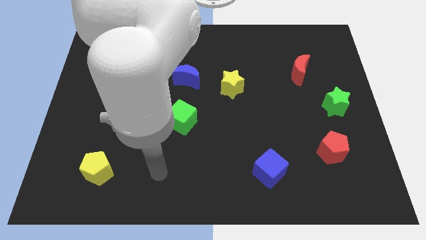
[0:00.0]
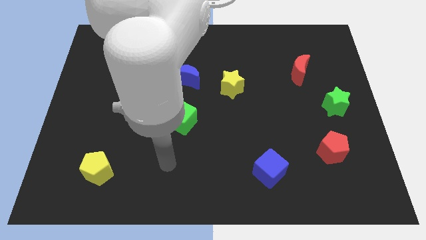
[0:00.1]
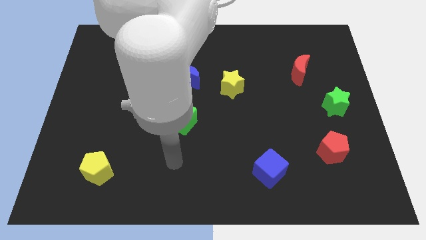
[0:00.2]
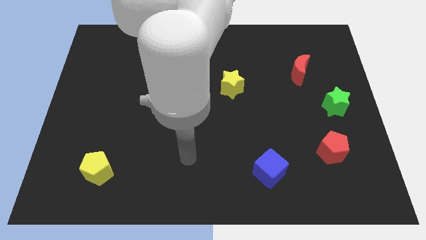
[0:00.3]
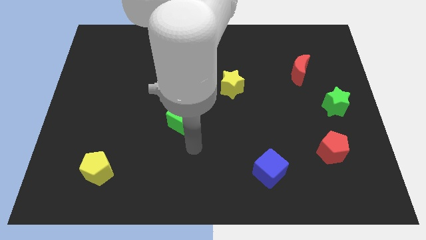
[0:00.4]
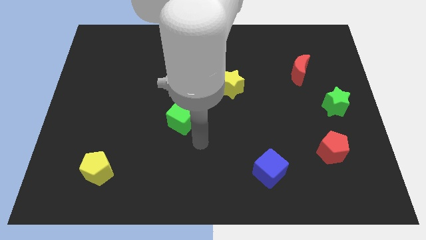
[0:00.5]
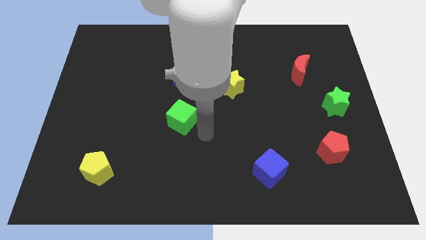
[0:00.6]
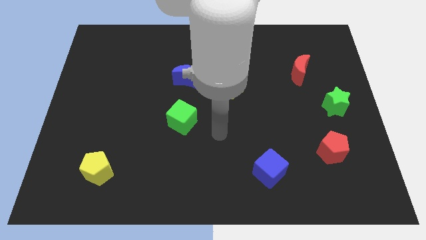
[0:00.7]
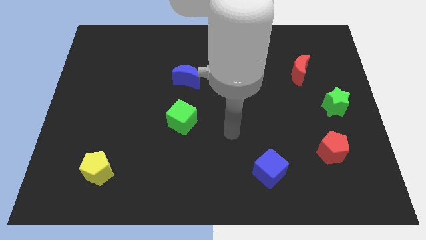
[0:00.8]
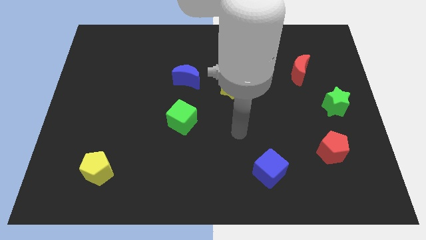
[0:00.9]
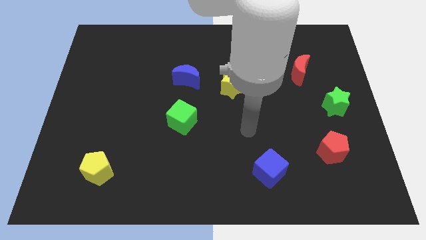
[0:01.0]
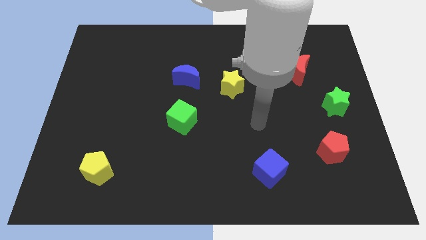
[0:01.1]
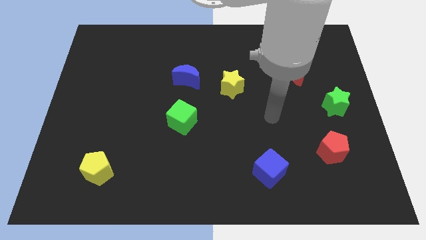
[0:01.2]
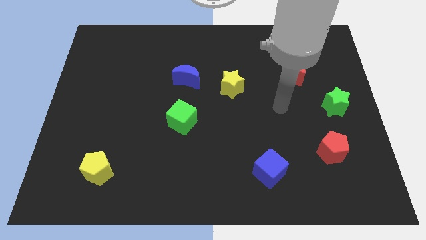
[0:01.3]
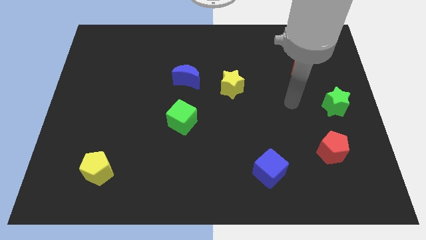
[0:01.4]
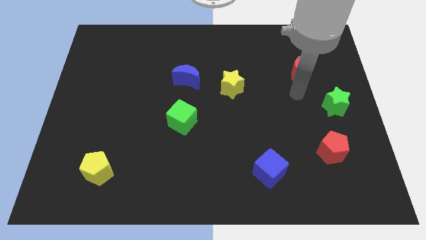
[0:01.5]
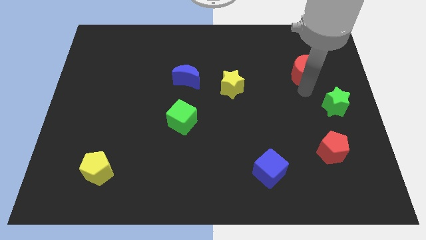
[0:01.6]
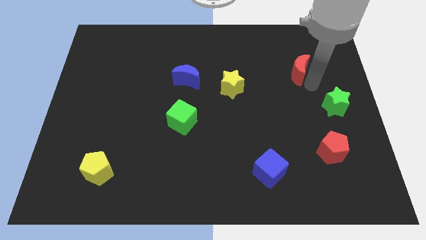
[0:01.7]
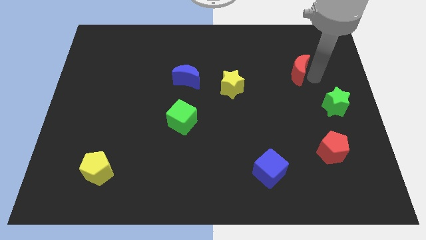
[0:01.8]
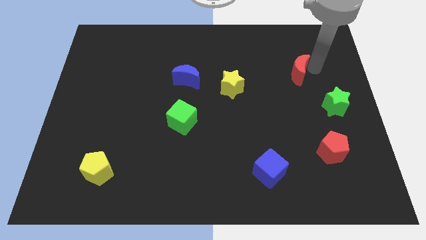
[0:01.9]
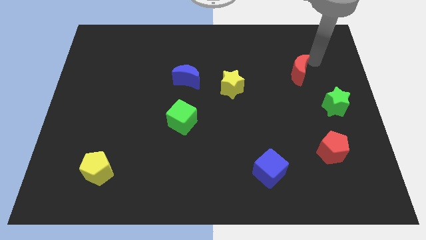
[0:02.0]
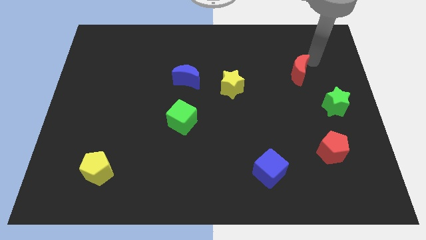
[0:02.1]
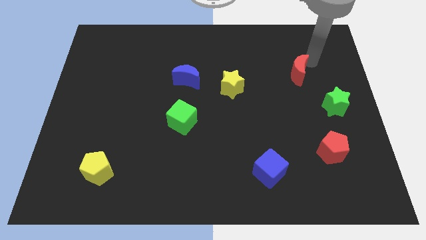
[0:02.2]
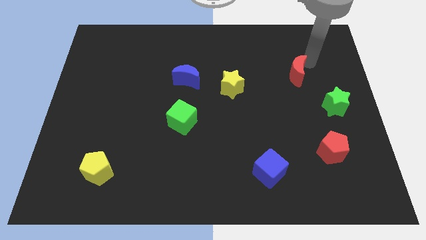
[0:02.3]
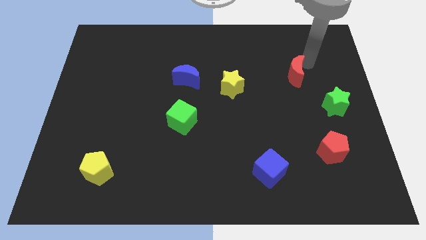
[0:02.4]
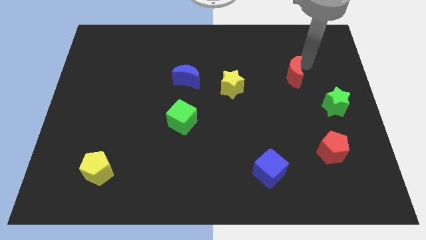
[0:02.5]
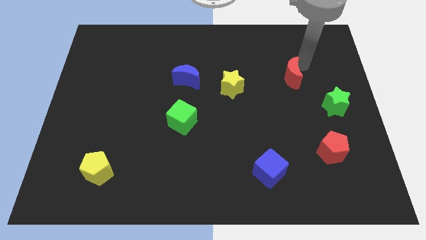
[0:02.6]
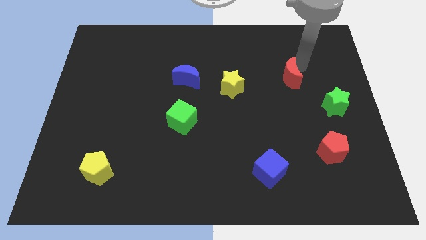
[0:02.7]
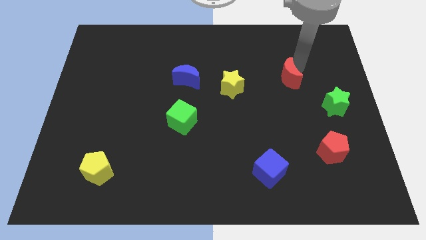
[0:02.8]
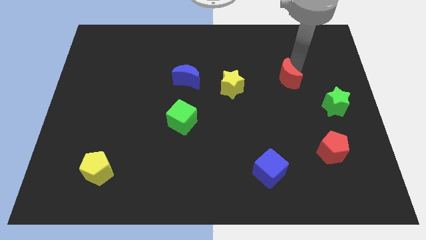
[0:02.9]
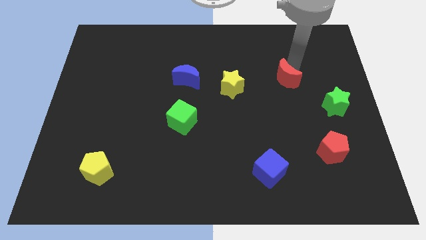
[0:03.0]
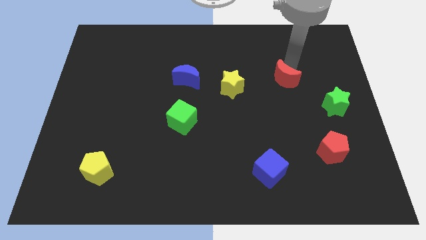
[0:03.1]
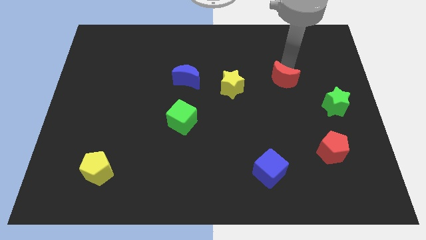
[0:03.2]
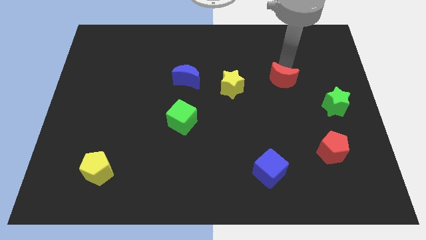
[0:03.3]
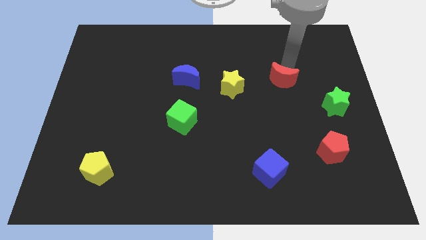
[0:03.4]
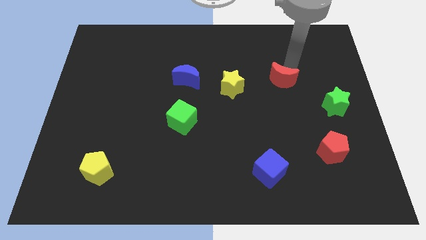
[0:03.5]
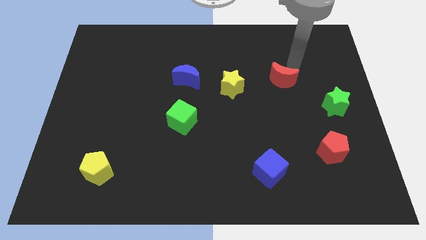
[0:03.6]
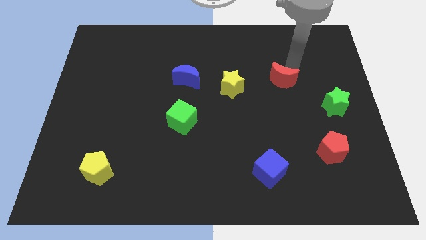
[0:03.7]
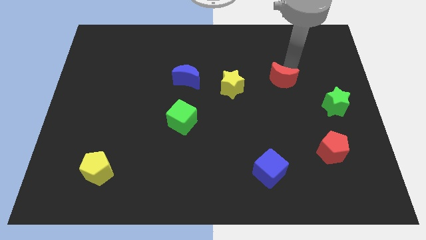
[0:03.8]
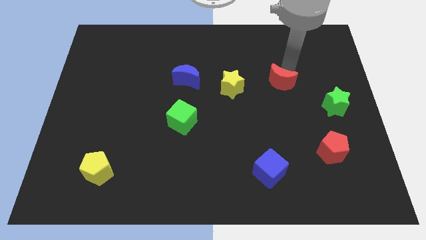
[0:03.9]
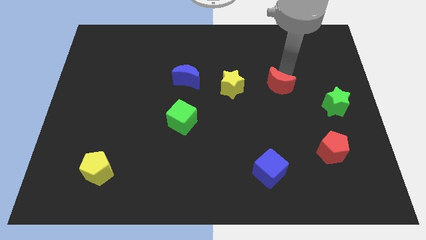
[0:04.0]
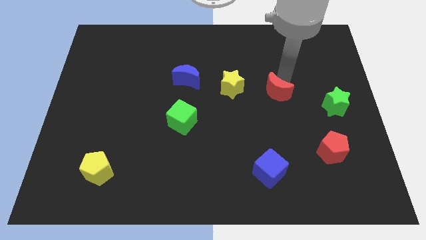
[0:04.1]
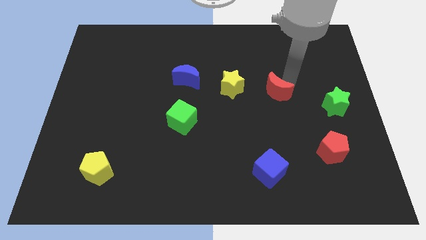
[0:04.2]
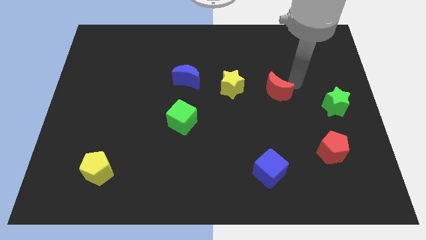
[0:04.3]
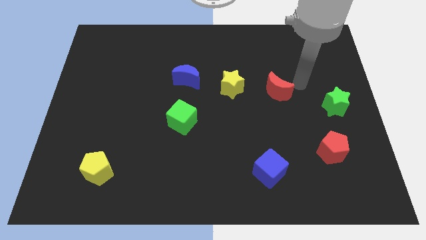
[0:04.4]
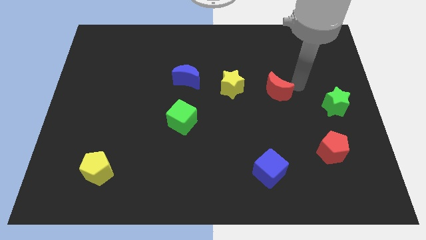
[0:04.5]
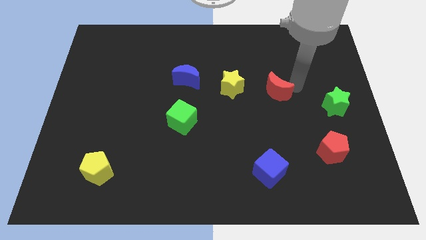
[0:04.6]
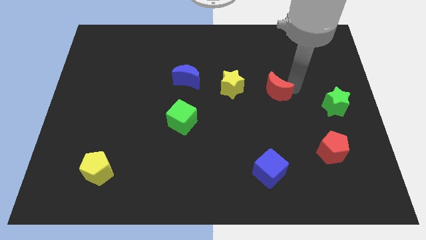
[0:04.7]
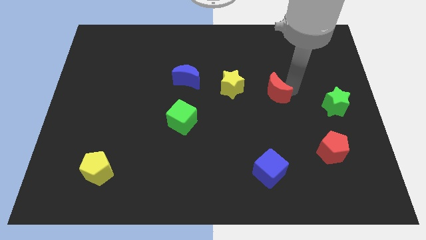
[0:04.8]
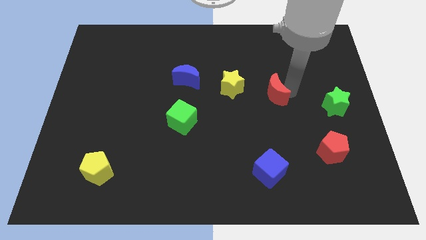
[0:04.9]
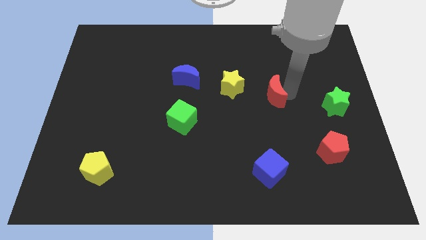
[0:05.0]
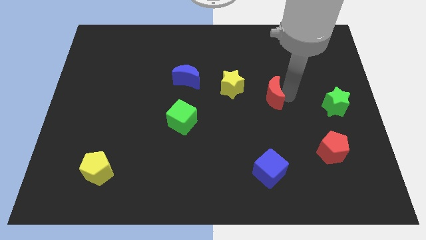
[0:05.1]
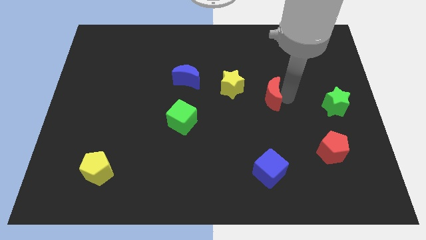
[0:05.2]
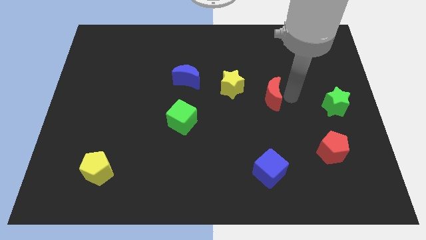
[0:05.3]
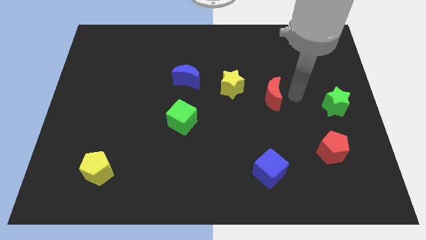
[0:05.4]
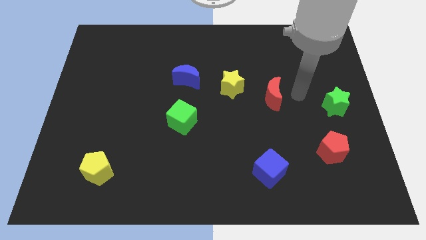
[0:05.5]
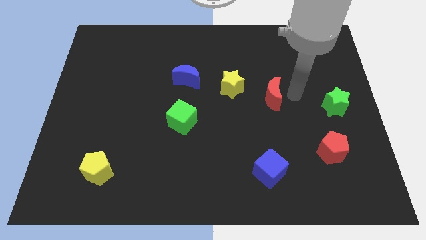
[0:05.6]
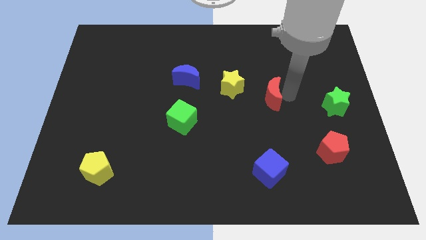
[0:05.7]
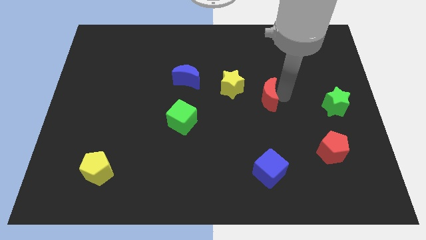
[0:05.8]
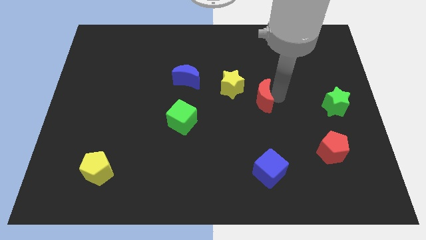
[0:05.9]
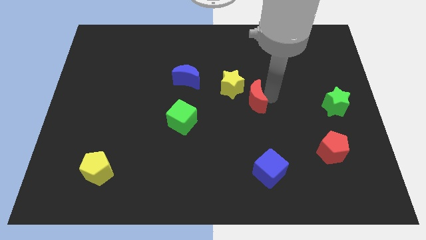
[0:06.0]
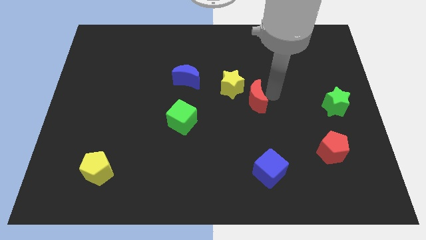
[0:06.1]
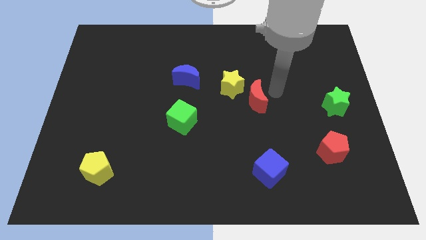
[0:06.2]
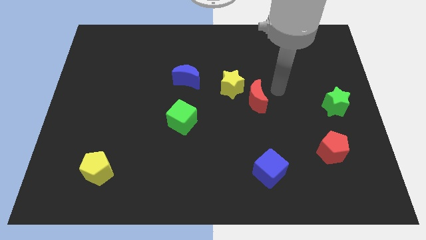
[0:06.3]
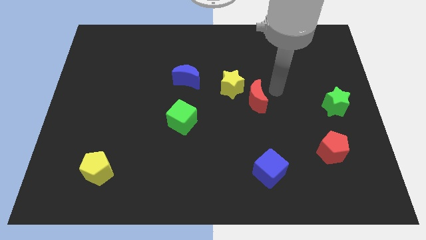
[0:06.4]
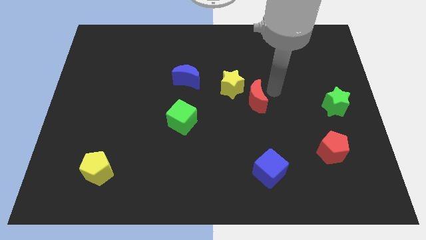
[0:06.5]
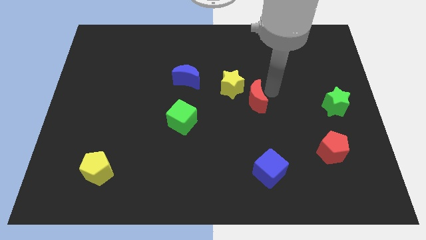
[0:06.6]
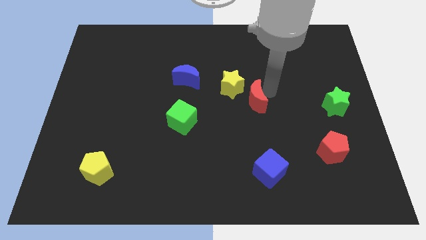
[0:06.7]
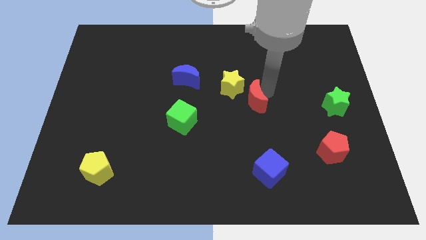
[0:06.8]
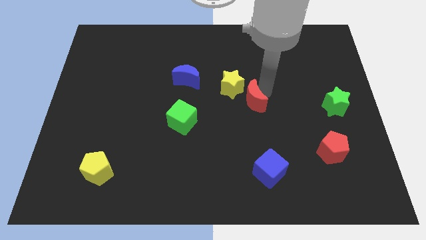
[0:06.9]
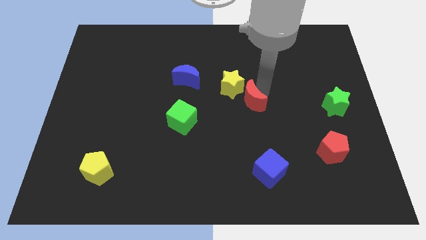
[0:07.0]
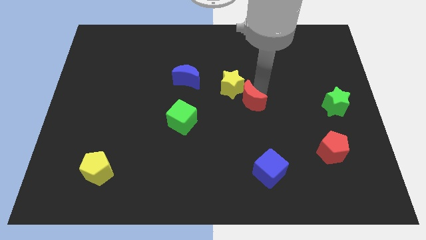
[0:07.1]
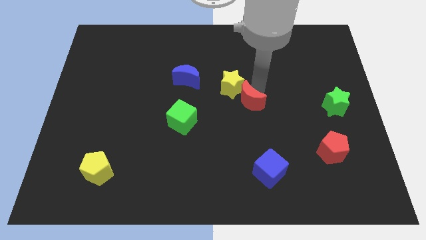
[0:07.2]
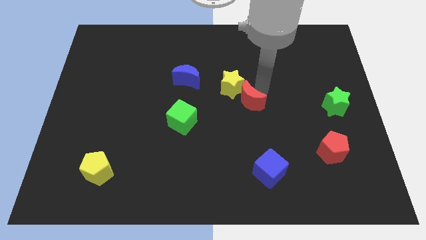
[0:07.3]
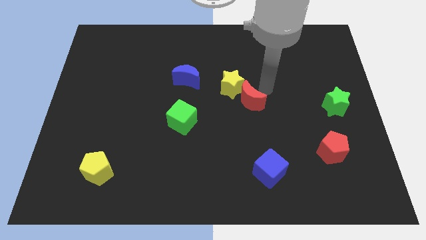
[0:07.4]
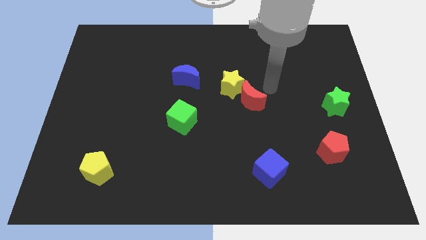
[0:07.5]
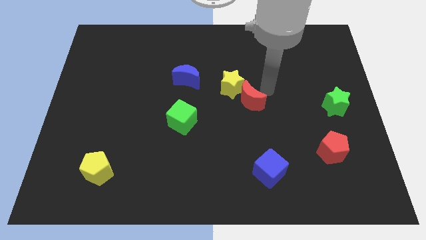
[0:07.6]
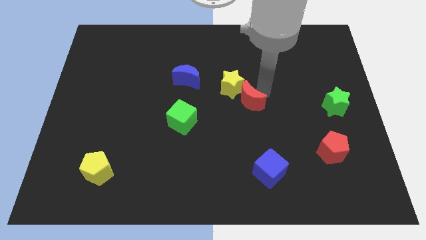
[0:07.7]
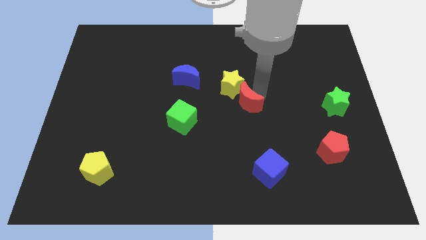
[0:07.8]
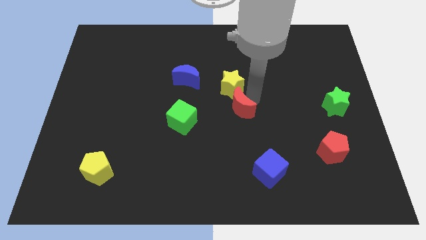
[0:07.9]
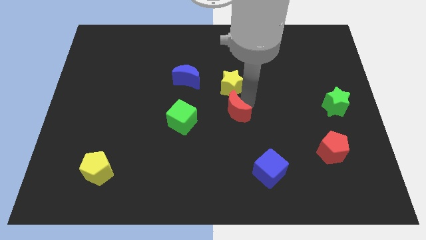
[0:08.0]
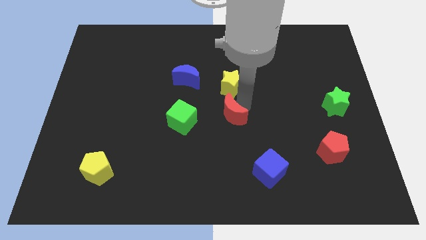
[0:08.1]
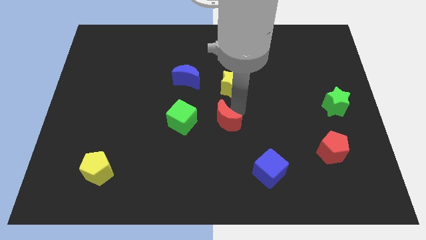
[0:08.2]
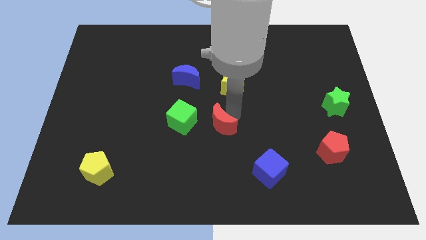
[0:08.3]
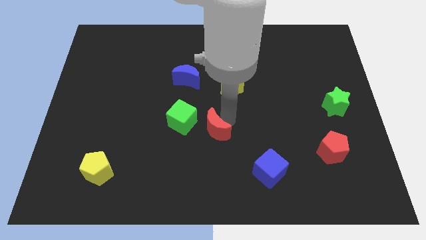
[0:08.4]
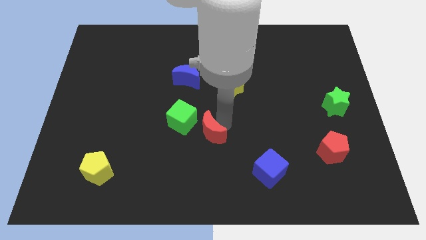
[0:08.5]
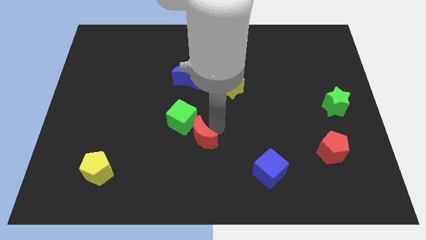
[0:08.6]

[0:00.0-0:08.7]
push the red moon to the bottom of the green cube
